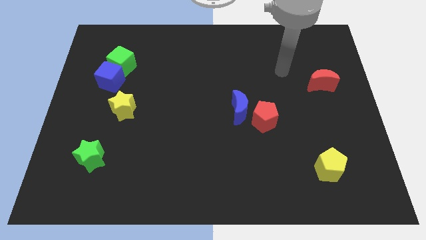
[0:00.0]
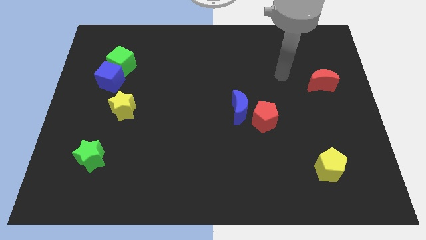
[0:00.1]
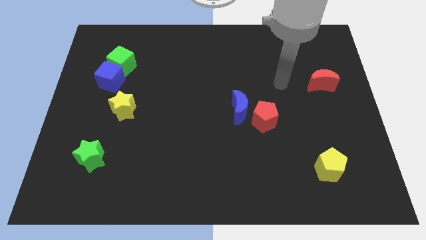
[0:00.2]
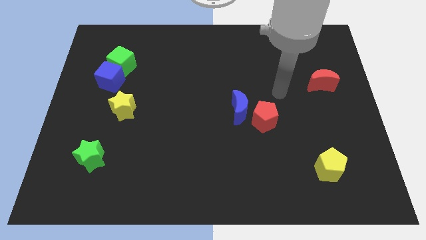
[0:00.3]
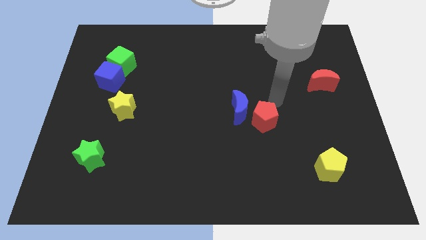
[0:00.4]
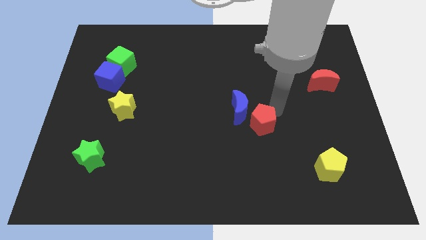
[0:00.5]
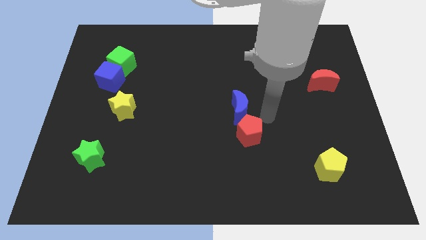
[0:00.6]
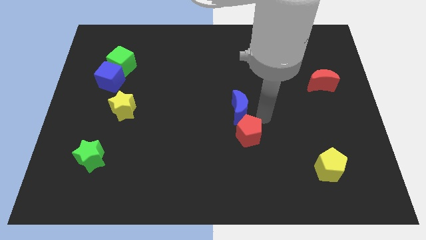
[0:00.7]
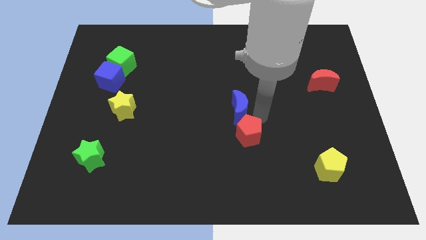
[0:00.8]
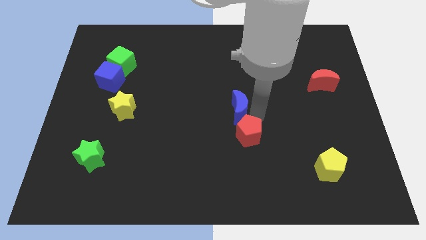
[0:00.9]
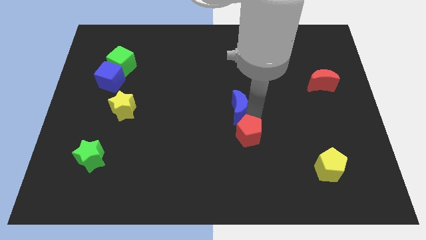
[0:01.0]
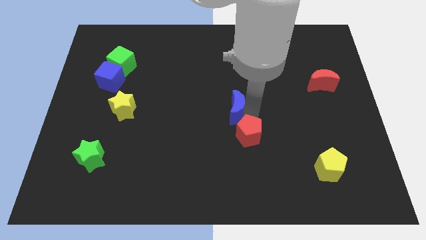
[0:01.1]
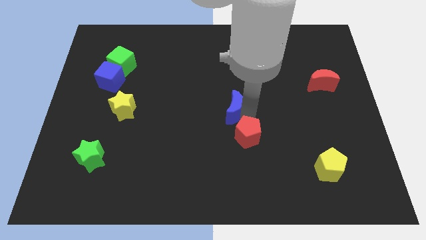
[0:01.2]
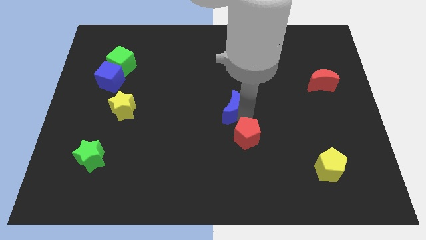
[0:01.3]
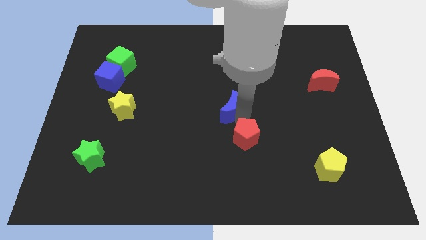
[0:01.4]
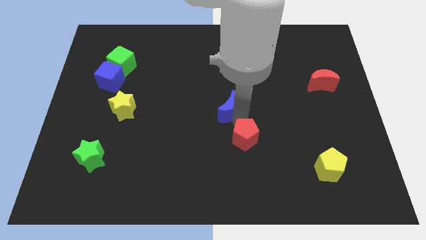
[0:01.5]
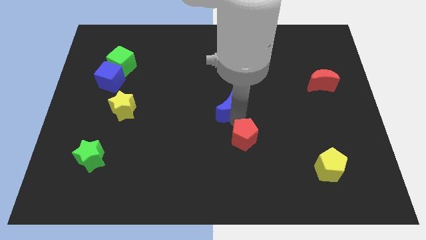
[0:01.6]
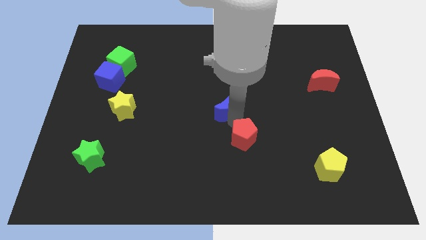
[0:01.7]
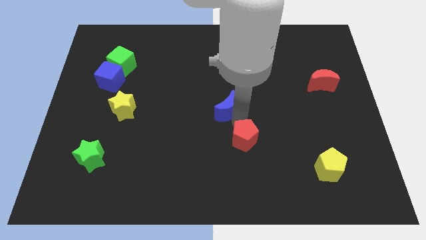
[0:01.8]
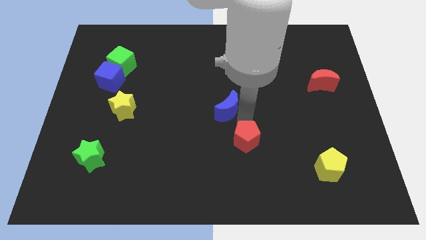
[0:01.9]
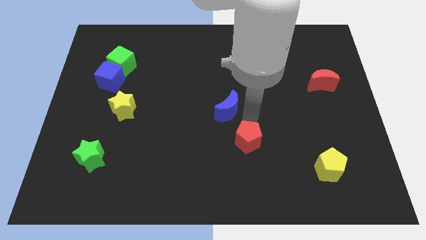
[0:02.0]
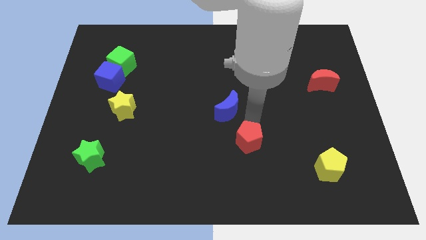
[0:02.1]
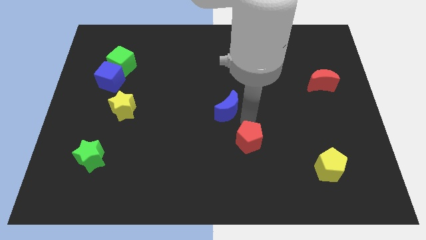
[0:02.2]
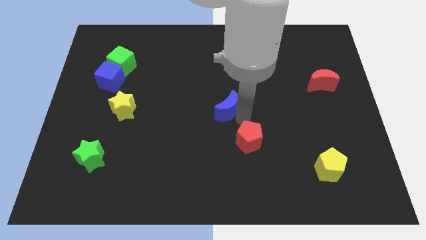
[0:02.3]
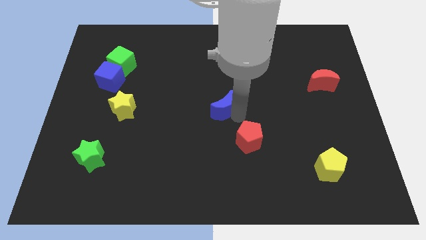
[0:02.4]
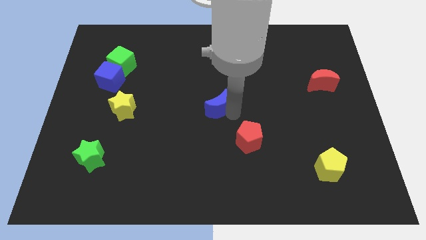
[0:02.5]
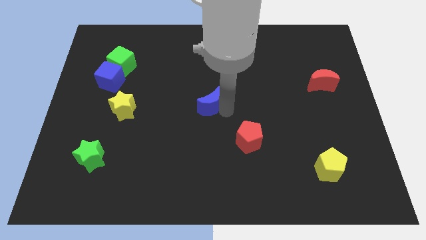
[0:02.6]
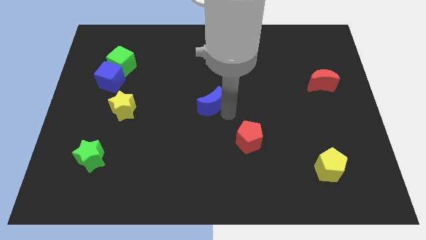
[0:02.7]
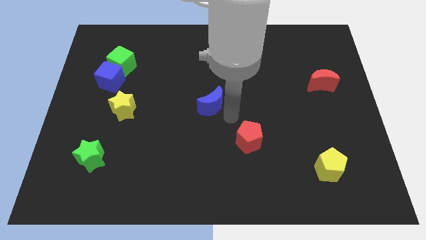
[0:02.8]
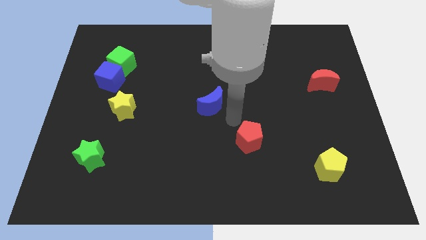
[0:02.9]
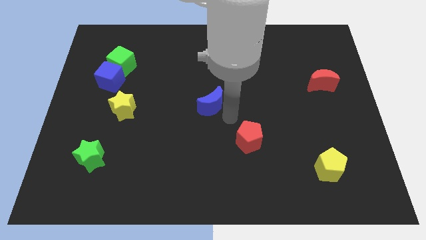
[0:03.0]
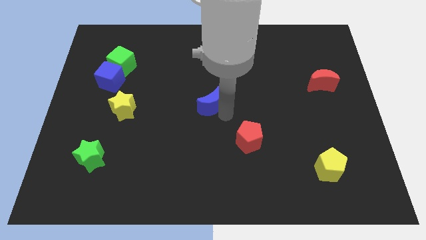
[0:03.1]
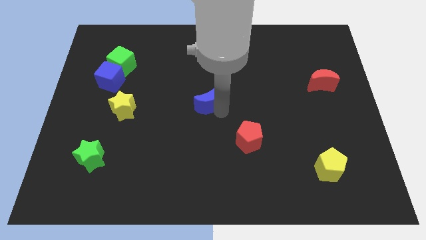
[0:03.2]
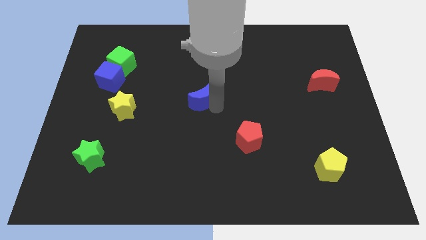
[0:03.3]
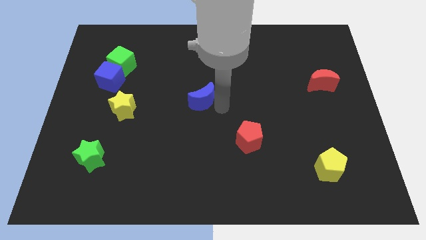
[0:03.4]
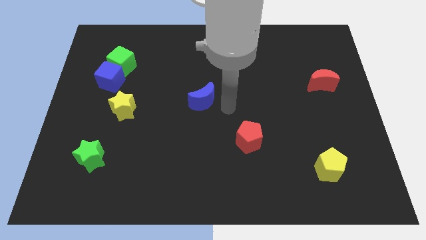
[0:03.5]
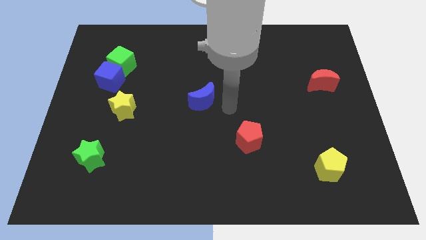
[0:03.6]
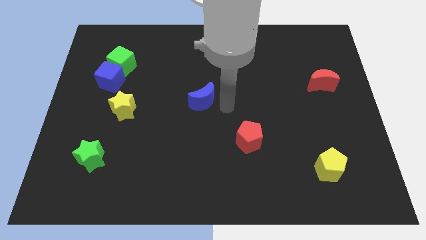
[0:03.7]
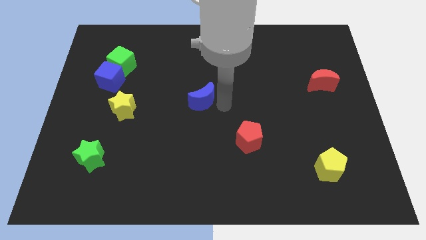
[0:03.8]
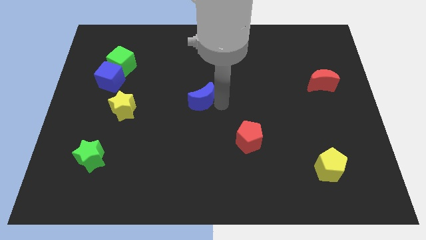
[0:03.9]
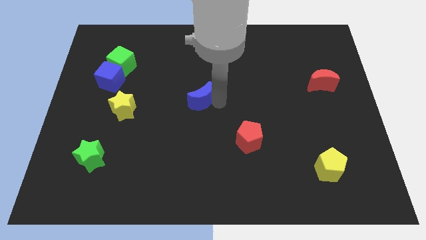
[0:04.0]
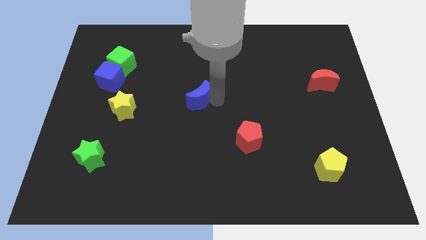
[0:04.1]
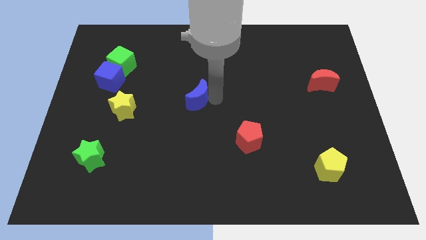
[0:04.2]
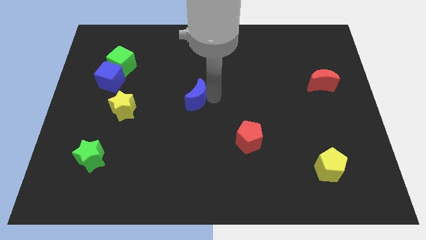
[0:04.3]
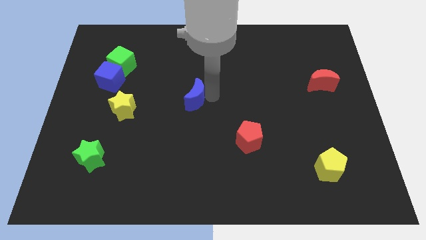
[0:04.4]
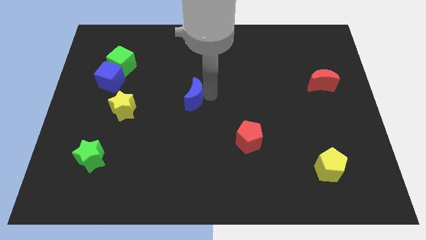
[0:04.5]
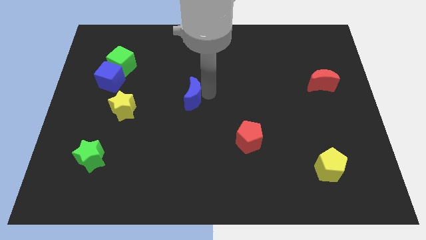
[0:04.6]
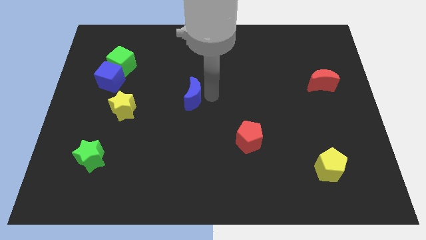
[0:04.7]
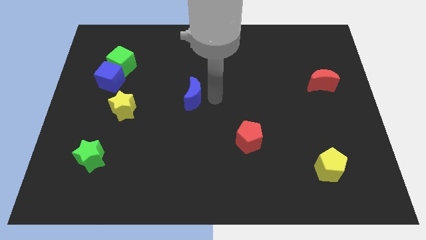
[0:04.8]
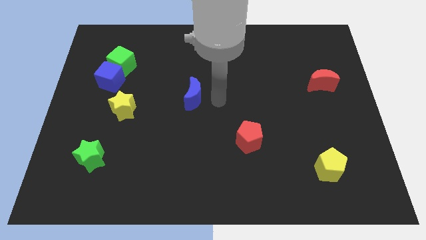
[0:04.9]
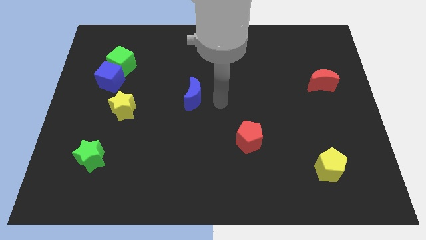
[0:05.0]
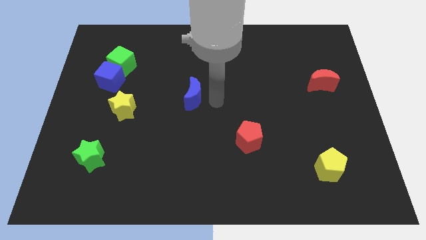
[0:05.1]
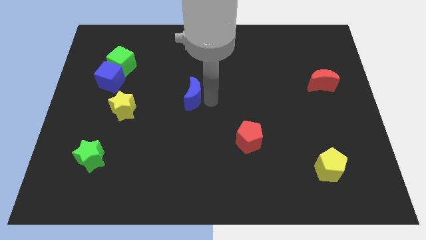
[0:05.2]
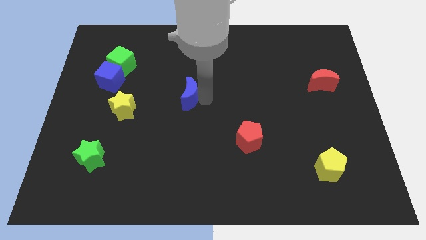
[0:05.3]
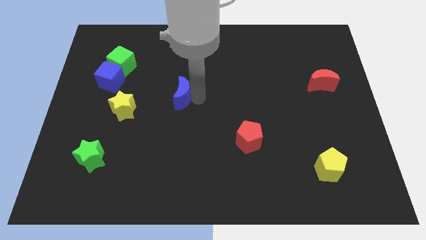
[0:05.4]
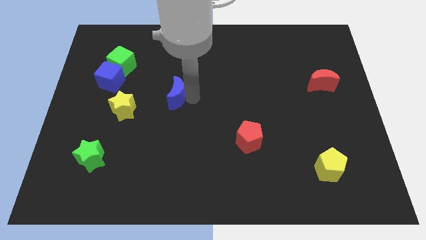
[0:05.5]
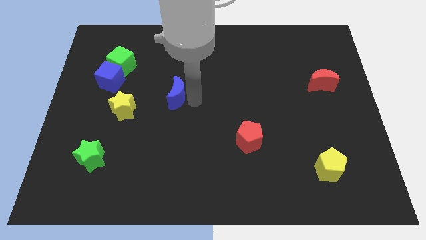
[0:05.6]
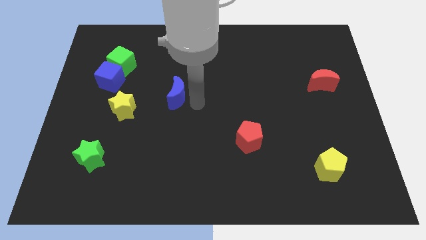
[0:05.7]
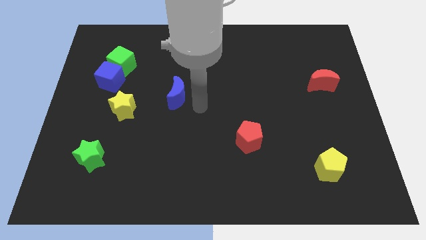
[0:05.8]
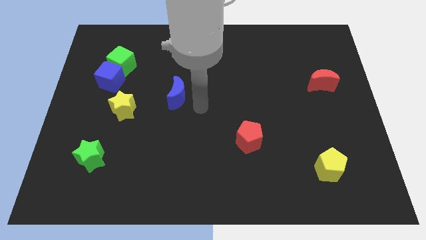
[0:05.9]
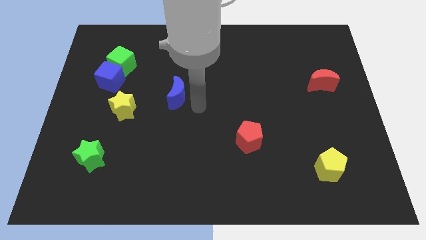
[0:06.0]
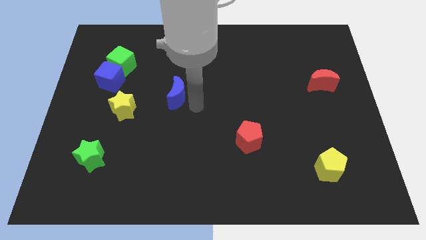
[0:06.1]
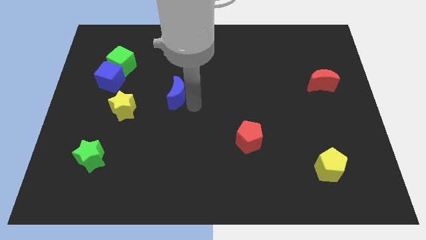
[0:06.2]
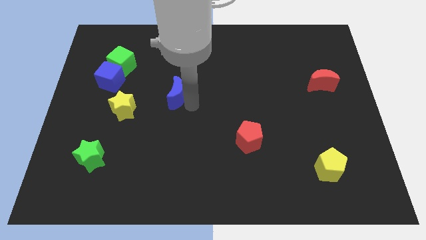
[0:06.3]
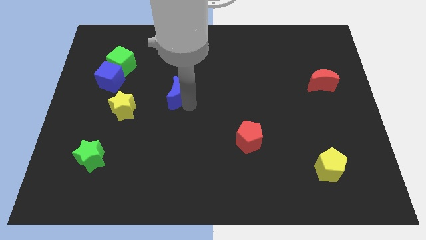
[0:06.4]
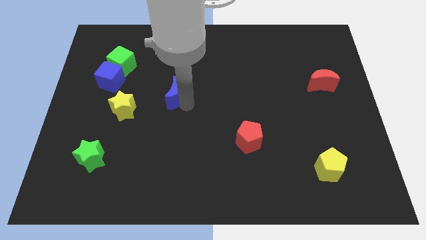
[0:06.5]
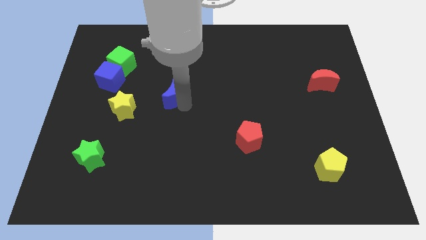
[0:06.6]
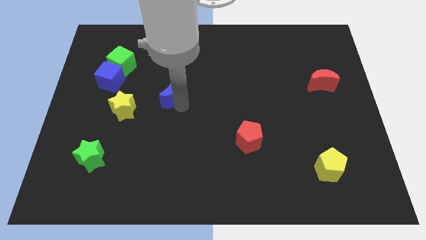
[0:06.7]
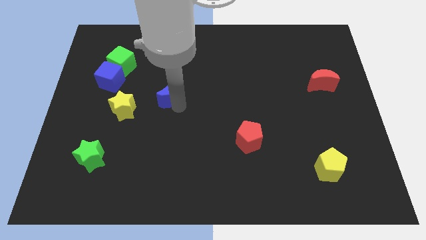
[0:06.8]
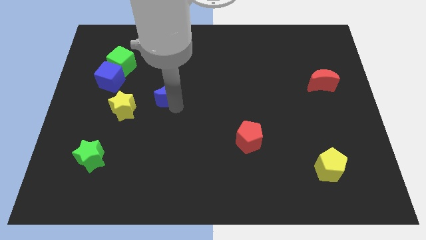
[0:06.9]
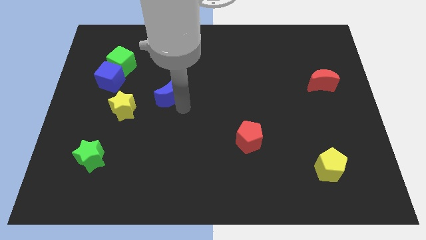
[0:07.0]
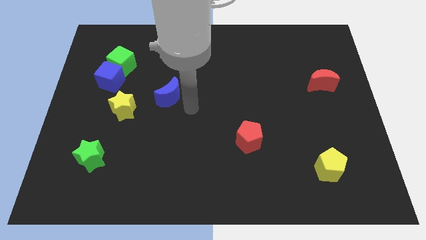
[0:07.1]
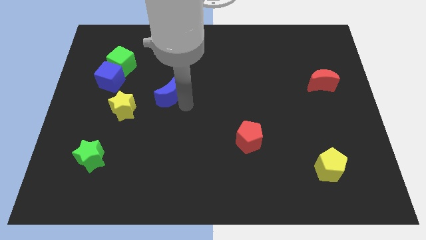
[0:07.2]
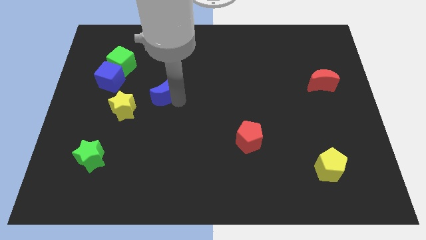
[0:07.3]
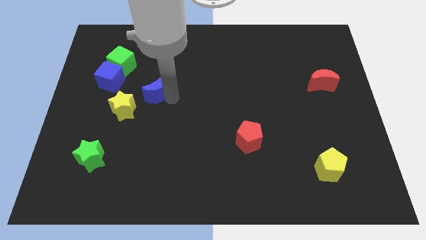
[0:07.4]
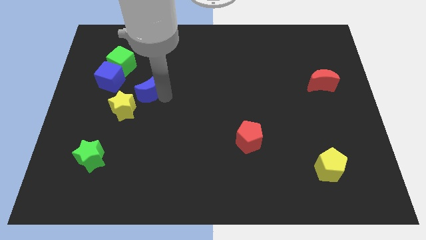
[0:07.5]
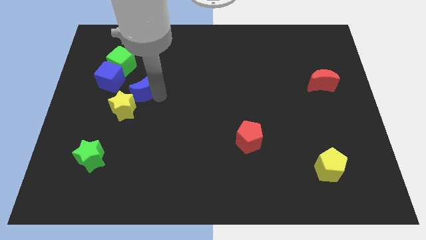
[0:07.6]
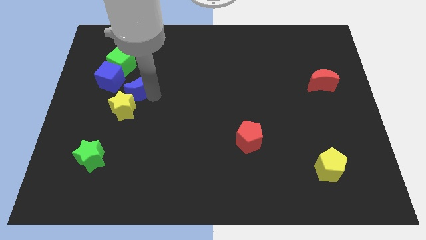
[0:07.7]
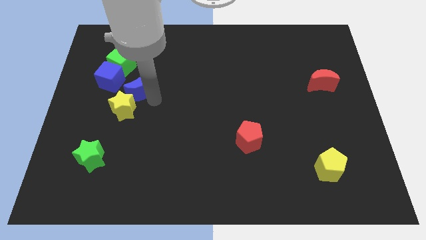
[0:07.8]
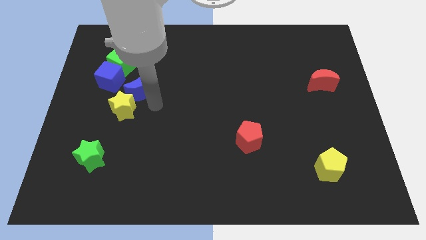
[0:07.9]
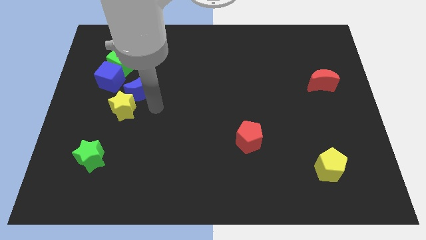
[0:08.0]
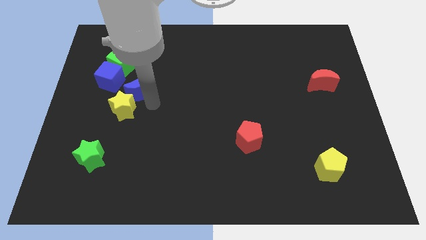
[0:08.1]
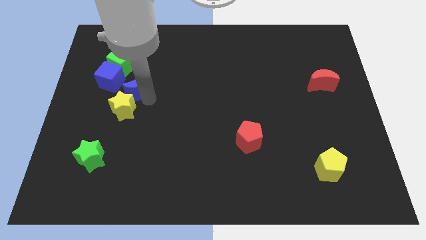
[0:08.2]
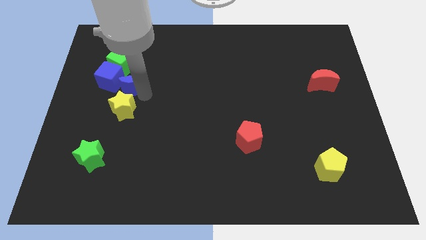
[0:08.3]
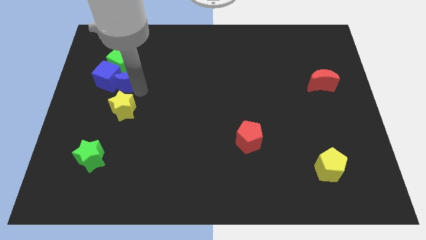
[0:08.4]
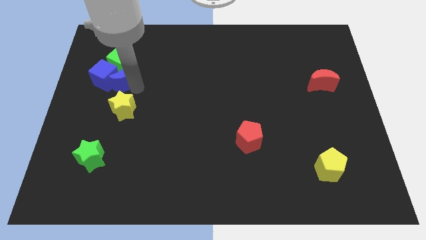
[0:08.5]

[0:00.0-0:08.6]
put the blue moon next to the green cube

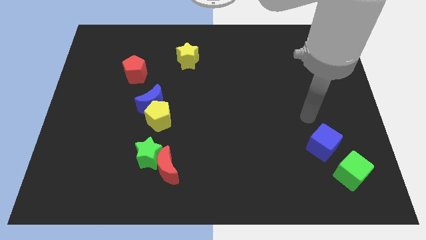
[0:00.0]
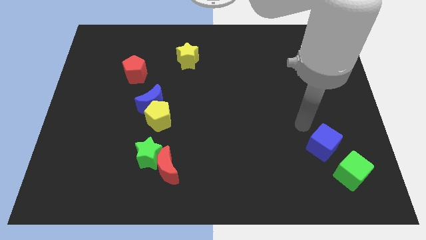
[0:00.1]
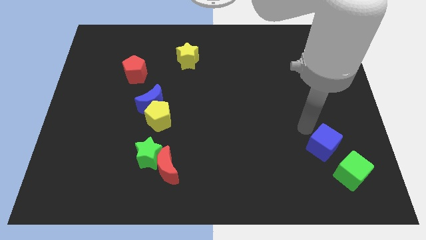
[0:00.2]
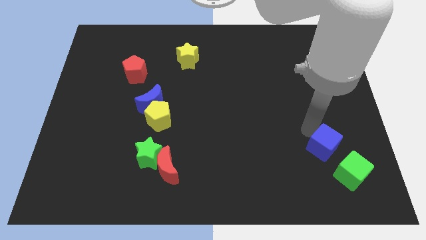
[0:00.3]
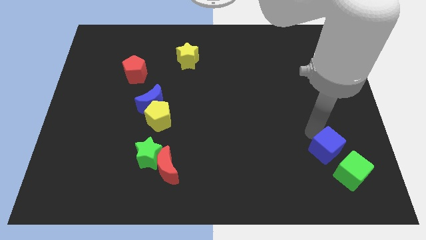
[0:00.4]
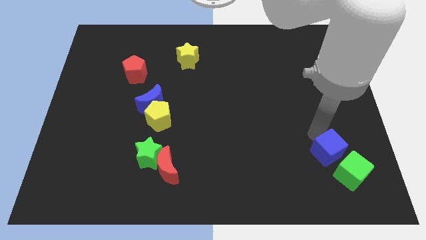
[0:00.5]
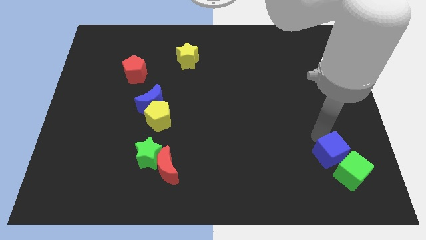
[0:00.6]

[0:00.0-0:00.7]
put the blue cube close to the green cube
